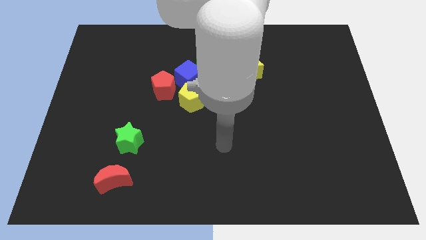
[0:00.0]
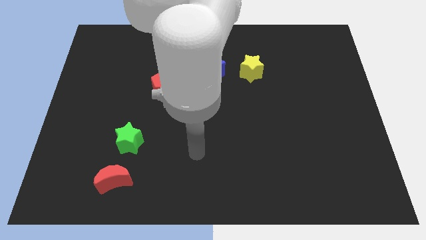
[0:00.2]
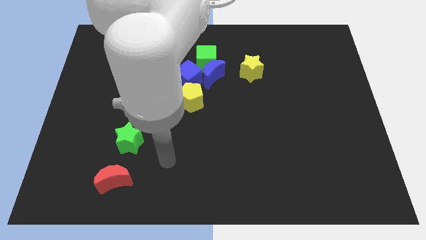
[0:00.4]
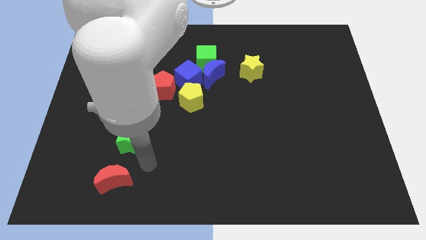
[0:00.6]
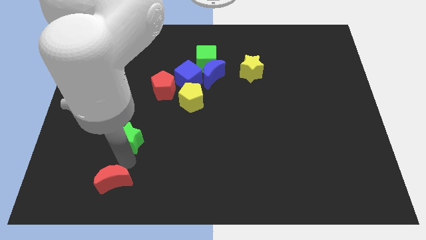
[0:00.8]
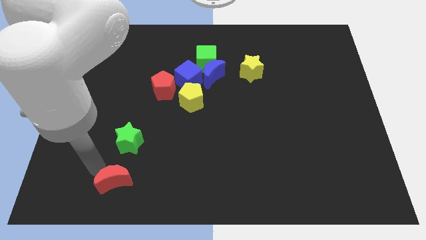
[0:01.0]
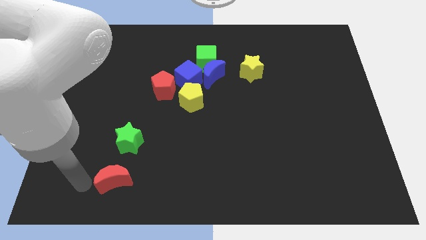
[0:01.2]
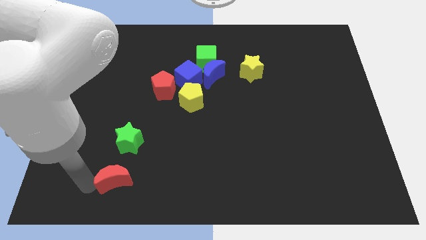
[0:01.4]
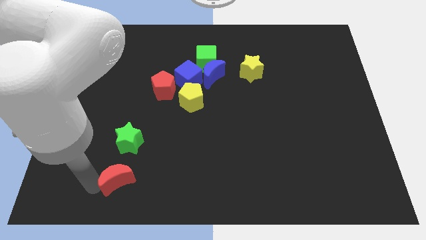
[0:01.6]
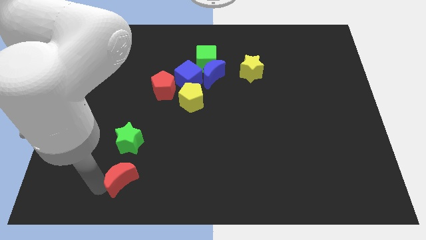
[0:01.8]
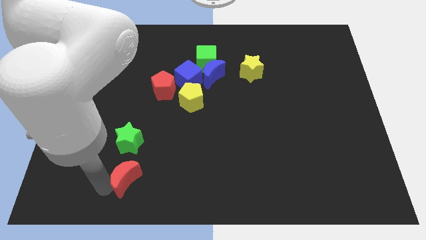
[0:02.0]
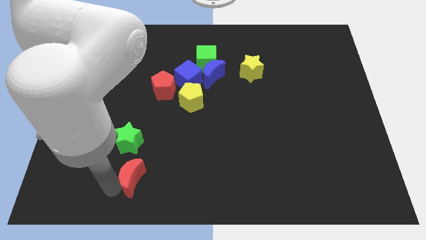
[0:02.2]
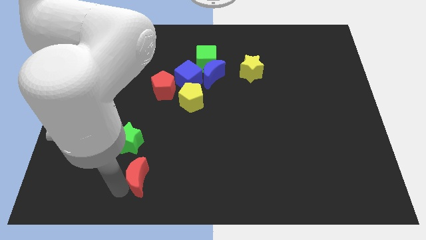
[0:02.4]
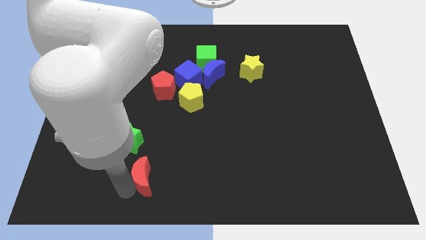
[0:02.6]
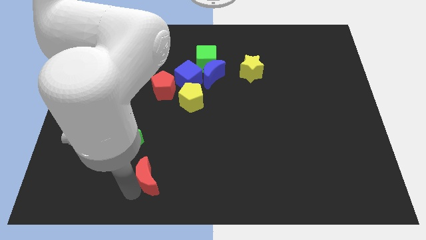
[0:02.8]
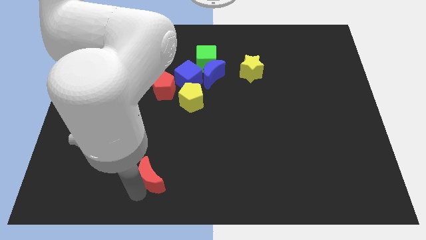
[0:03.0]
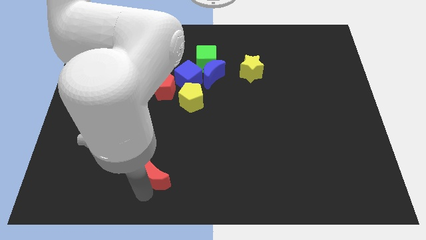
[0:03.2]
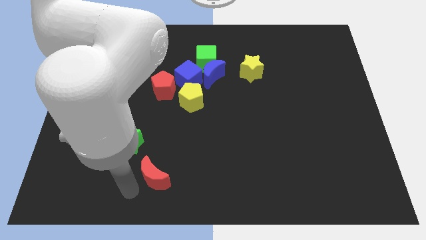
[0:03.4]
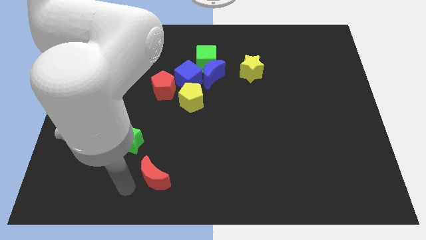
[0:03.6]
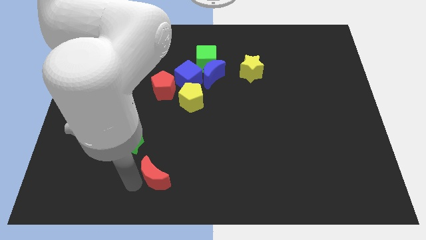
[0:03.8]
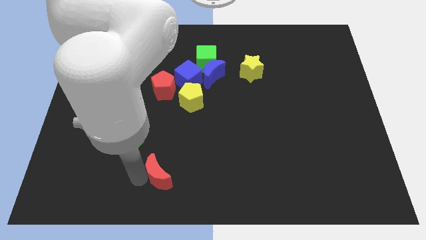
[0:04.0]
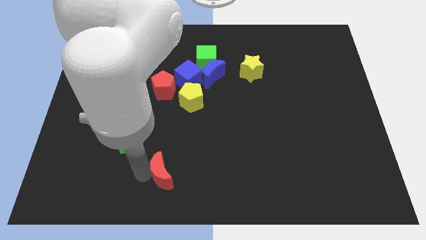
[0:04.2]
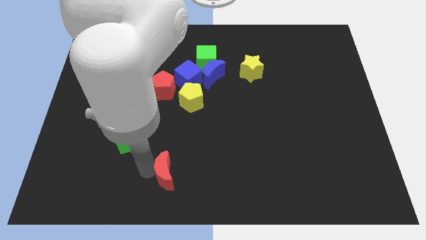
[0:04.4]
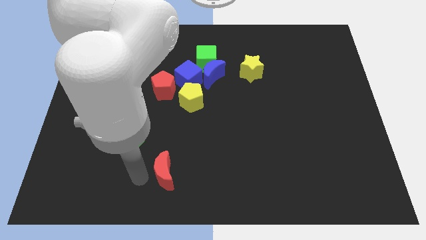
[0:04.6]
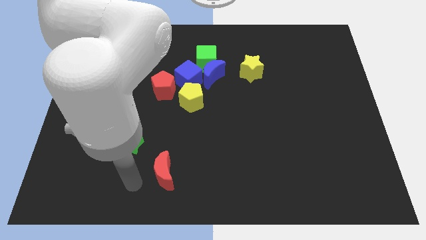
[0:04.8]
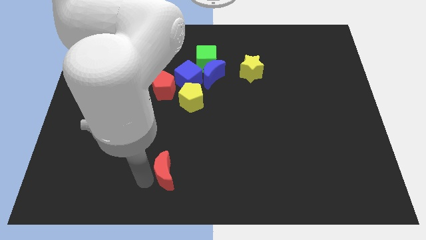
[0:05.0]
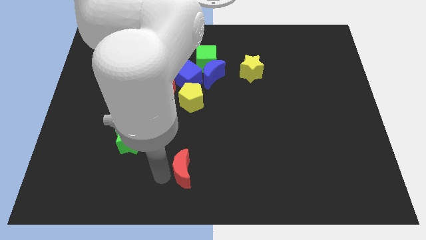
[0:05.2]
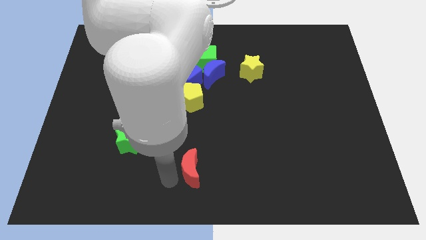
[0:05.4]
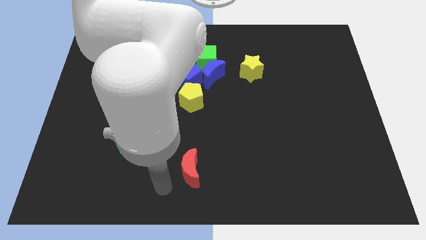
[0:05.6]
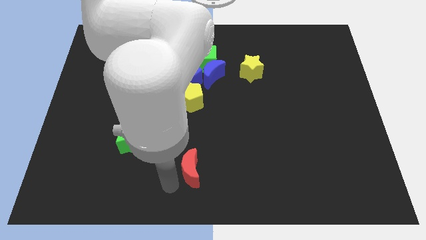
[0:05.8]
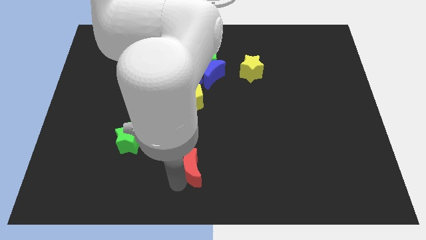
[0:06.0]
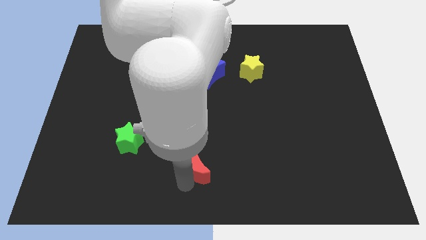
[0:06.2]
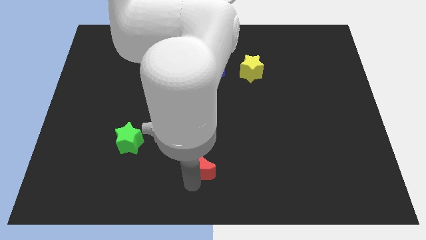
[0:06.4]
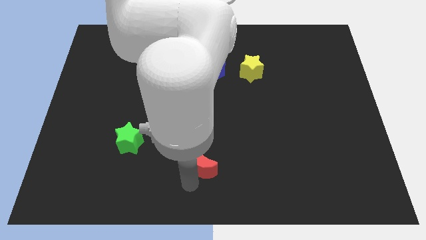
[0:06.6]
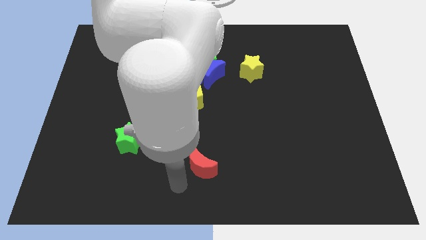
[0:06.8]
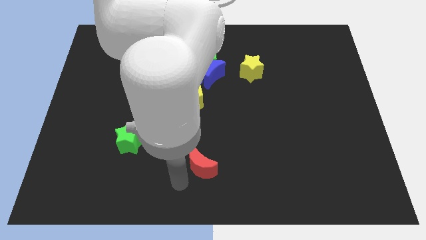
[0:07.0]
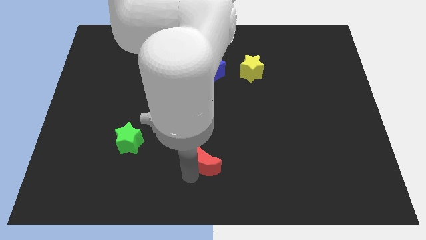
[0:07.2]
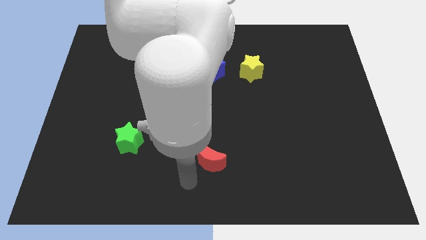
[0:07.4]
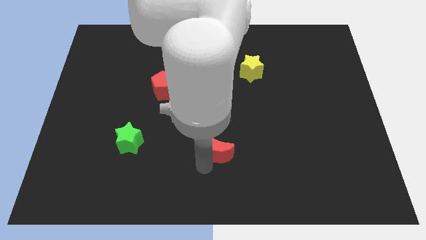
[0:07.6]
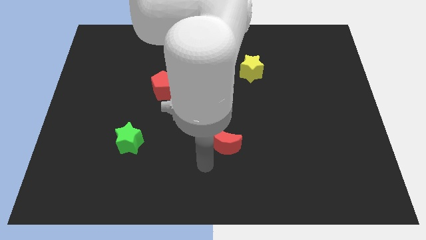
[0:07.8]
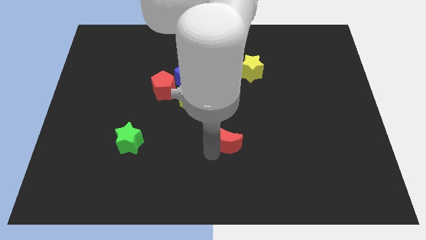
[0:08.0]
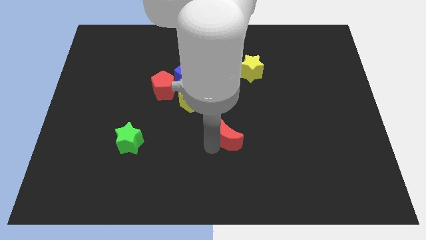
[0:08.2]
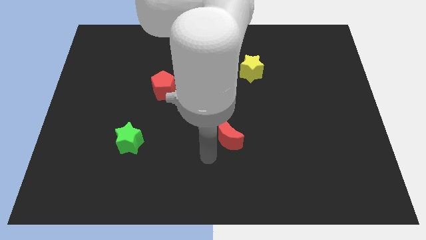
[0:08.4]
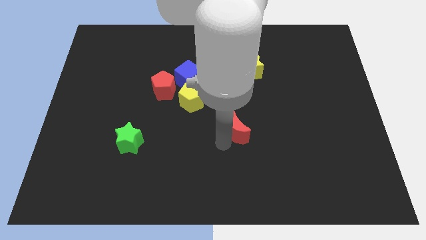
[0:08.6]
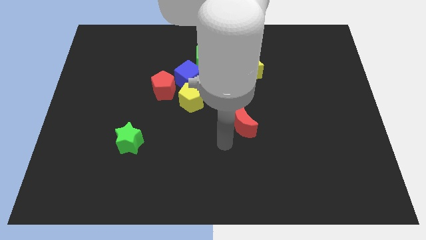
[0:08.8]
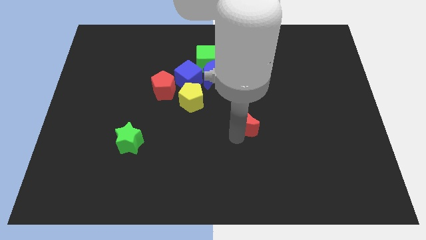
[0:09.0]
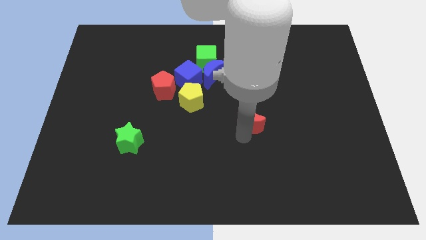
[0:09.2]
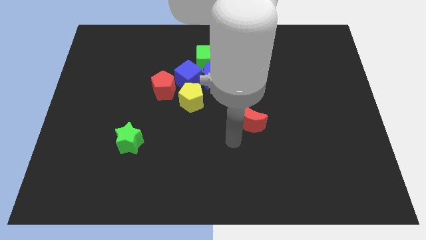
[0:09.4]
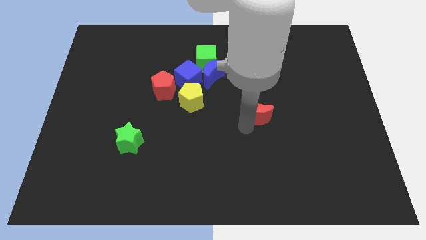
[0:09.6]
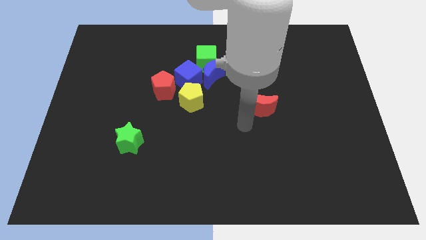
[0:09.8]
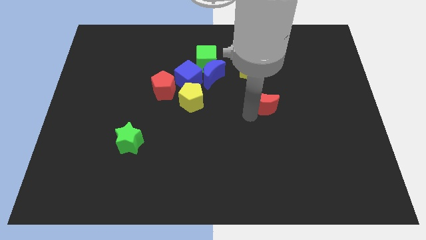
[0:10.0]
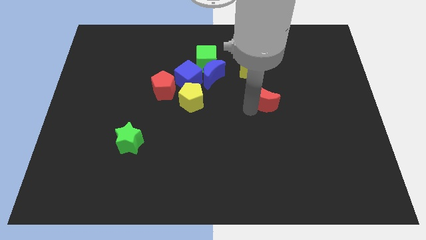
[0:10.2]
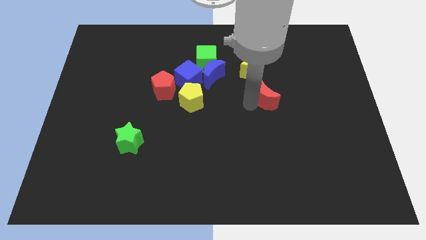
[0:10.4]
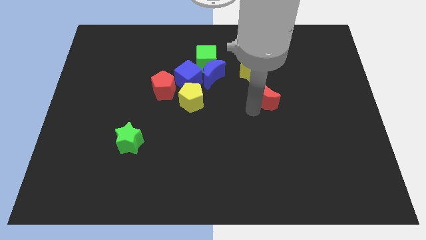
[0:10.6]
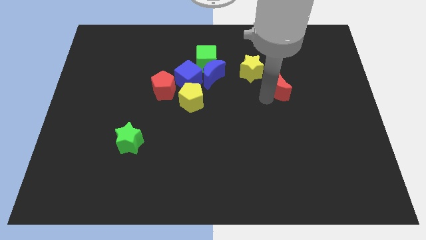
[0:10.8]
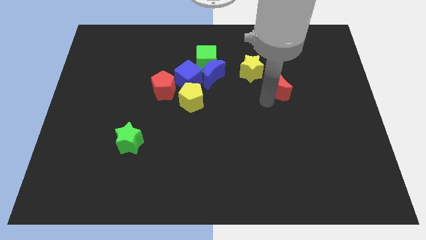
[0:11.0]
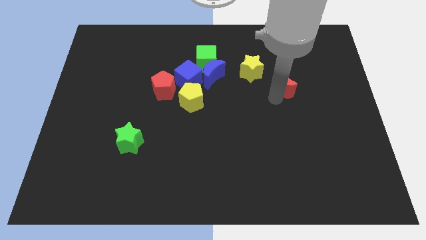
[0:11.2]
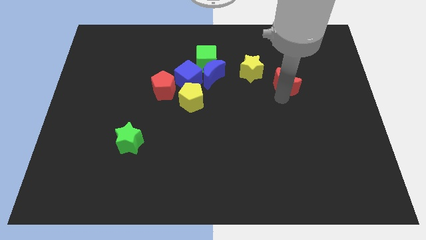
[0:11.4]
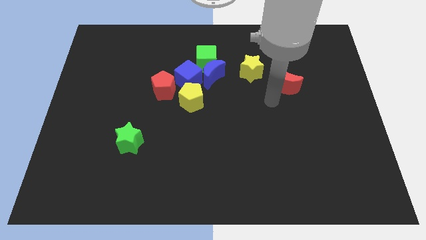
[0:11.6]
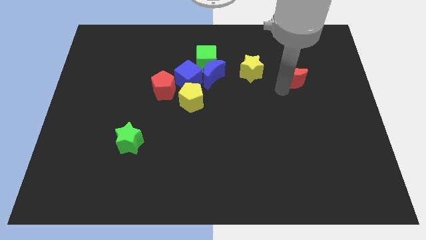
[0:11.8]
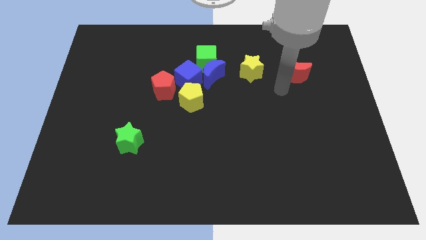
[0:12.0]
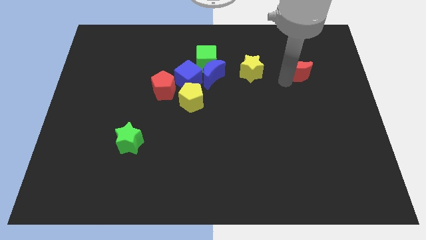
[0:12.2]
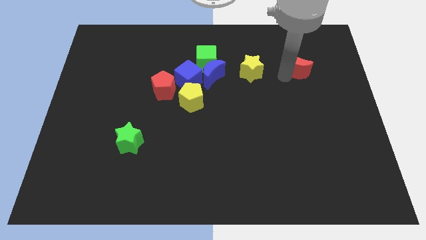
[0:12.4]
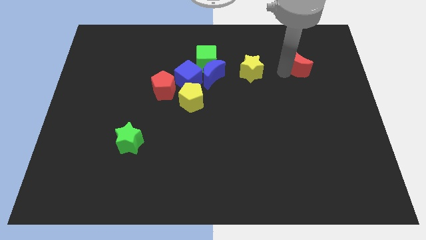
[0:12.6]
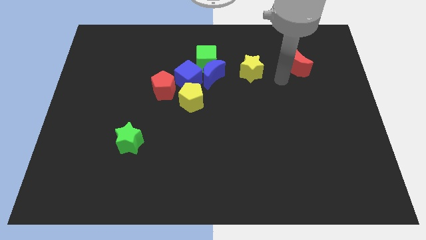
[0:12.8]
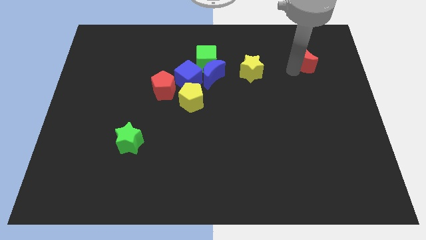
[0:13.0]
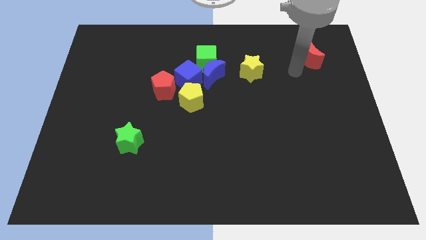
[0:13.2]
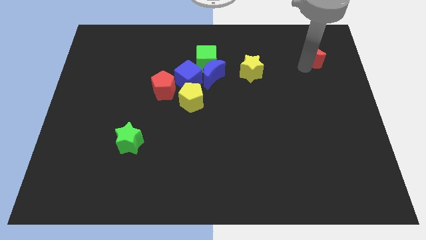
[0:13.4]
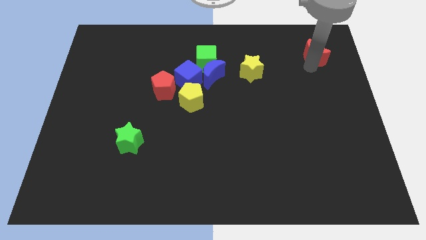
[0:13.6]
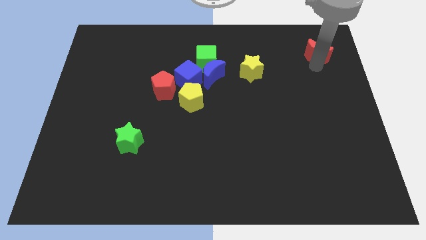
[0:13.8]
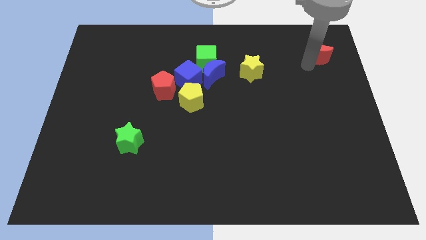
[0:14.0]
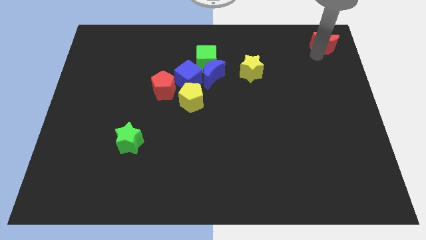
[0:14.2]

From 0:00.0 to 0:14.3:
slide the red moon to the top right
